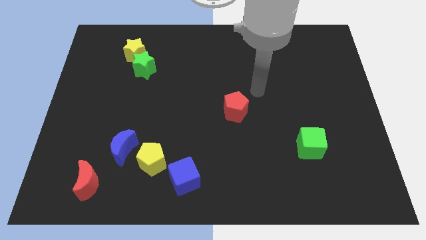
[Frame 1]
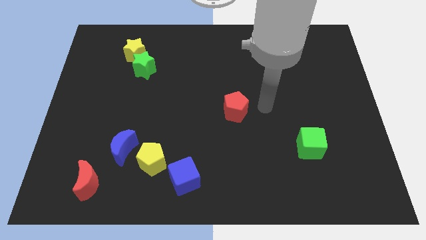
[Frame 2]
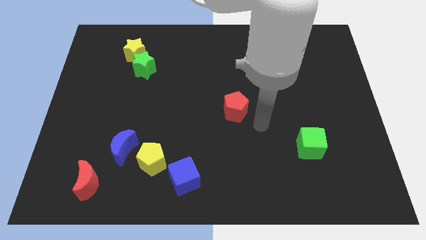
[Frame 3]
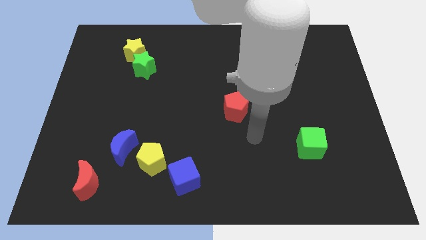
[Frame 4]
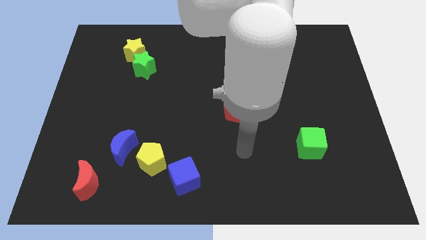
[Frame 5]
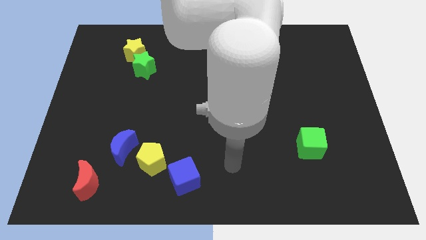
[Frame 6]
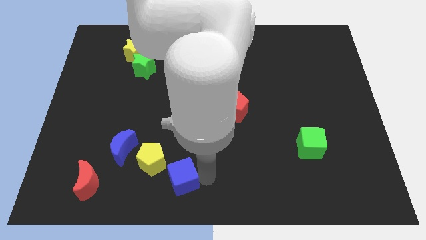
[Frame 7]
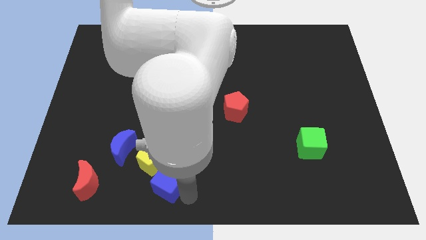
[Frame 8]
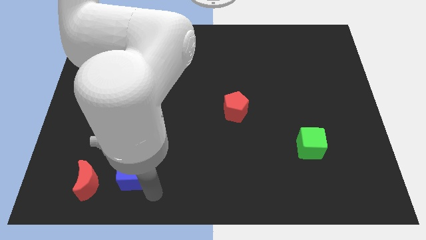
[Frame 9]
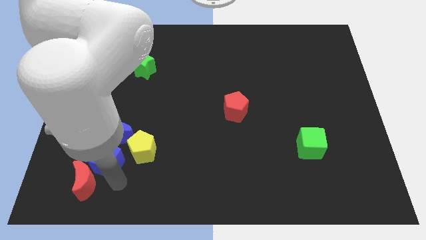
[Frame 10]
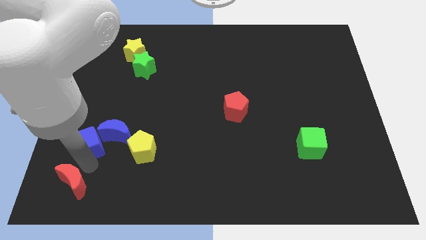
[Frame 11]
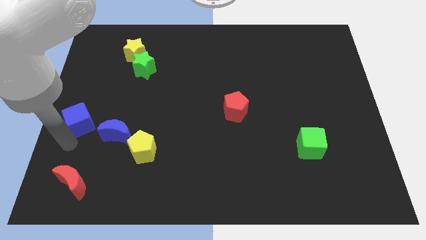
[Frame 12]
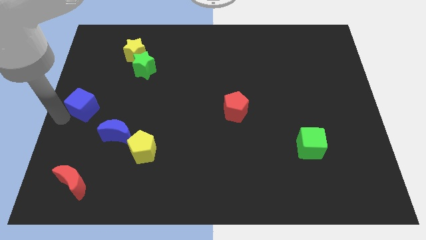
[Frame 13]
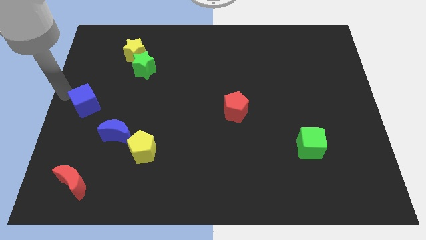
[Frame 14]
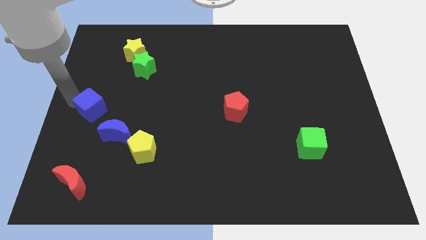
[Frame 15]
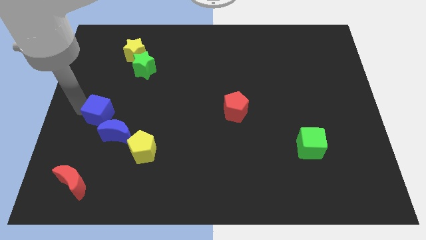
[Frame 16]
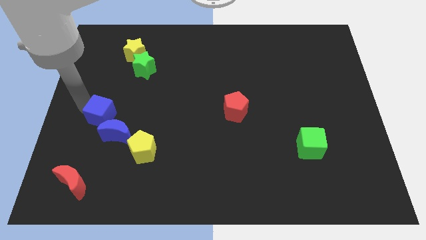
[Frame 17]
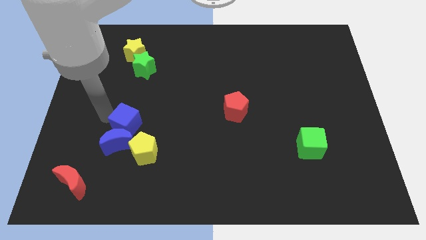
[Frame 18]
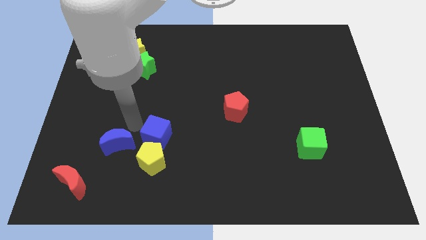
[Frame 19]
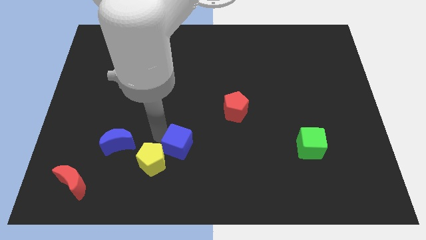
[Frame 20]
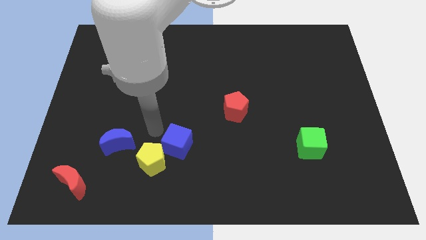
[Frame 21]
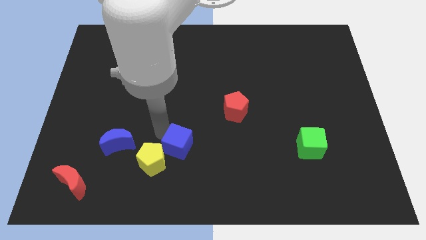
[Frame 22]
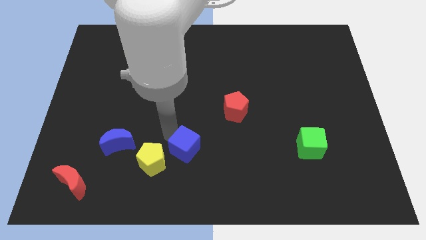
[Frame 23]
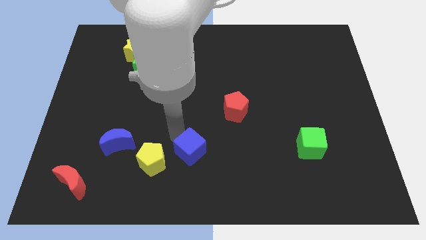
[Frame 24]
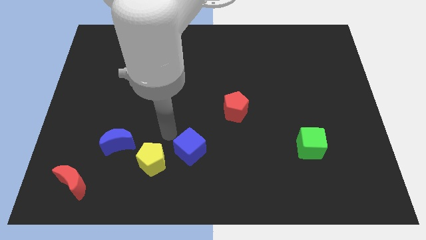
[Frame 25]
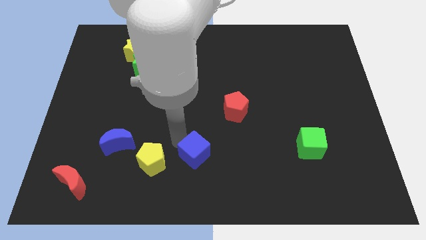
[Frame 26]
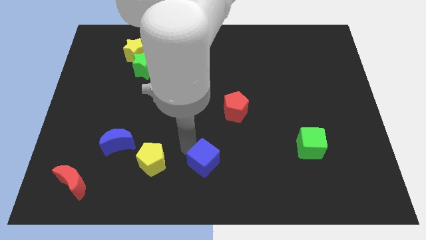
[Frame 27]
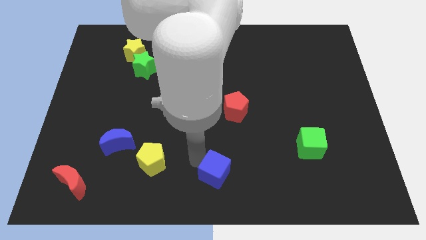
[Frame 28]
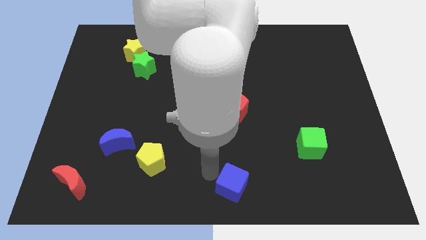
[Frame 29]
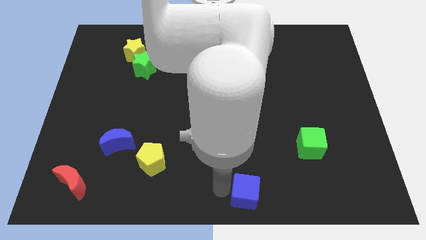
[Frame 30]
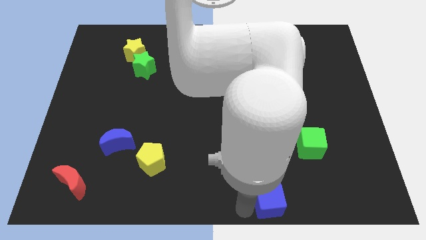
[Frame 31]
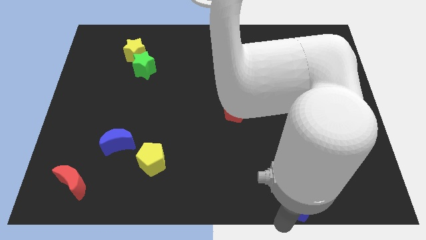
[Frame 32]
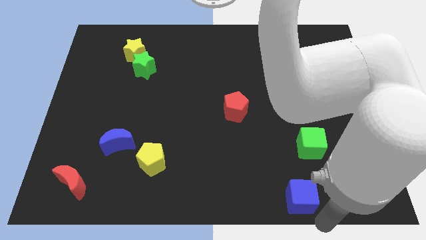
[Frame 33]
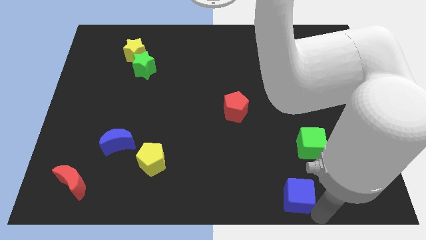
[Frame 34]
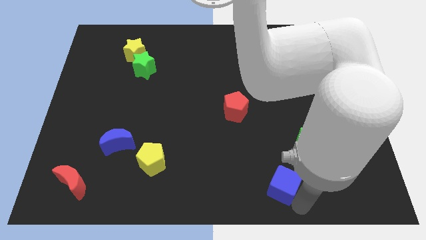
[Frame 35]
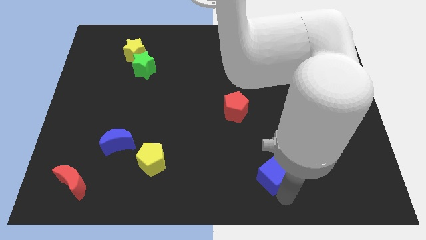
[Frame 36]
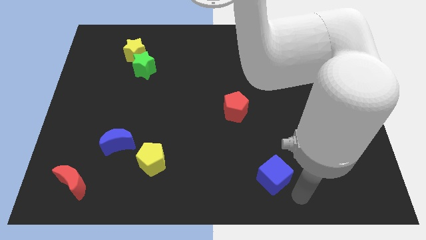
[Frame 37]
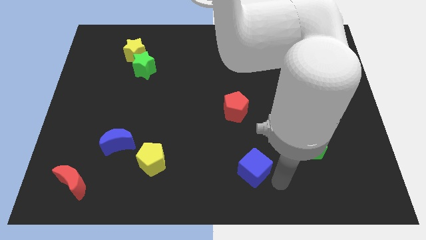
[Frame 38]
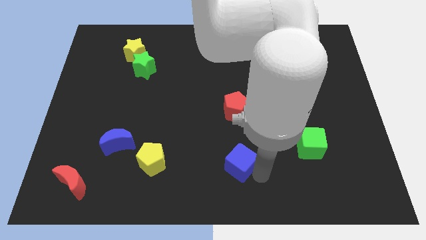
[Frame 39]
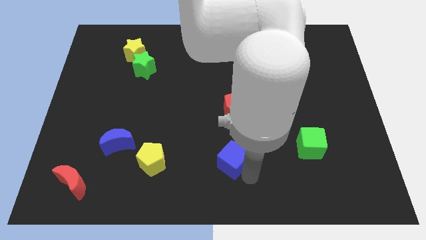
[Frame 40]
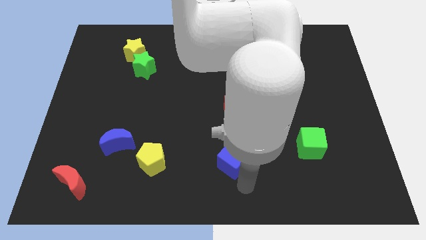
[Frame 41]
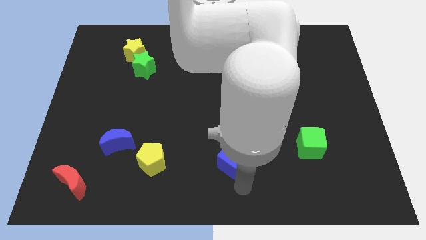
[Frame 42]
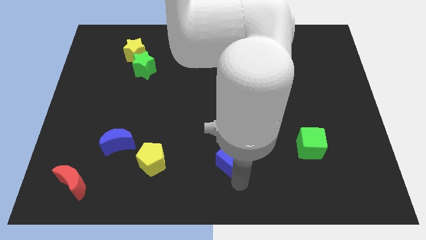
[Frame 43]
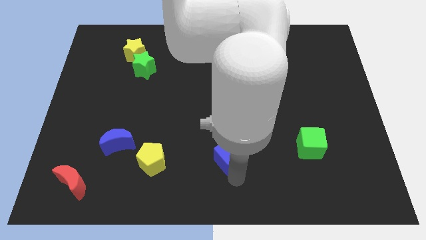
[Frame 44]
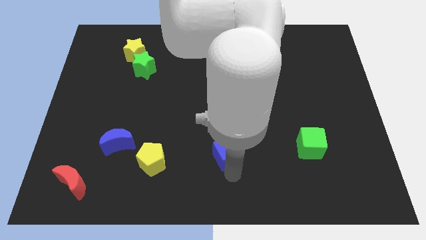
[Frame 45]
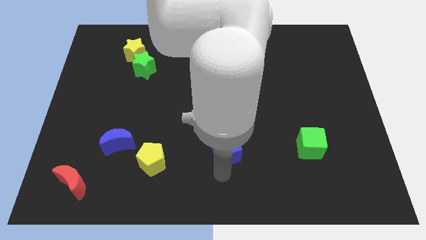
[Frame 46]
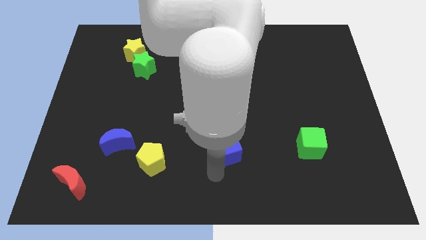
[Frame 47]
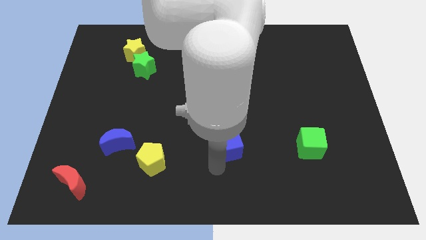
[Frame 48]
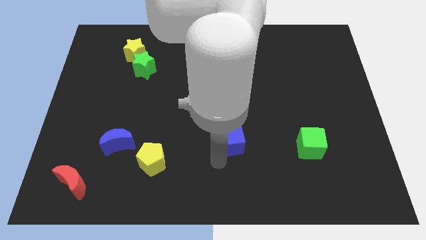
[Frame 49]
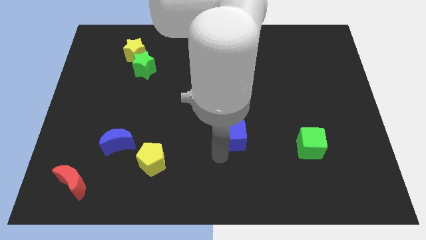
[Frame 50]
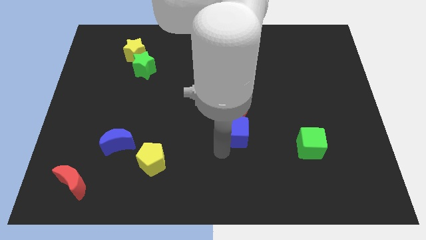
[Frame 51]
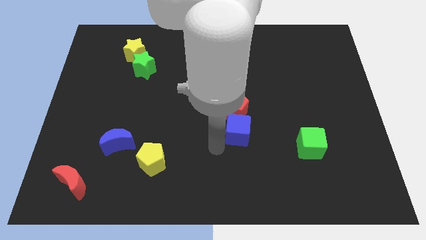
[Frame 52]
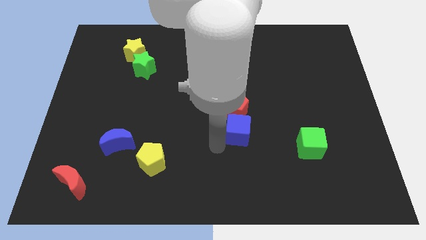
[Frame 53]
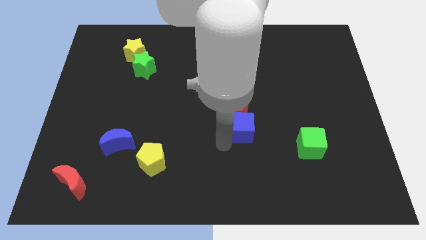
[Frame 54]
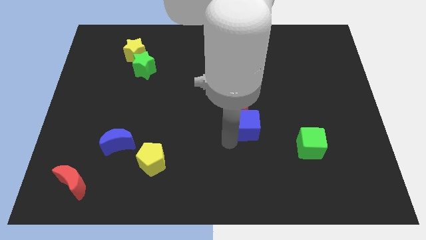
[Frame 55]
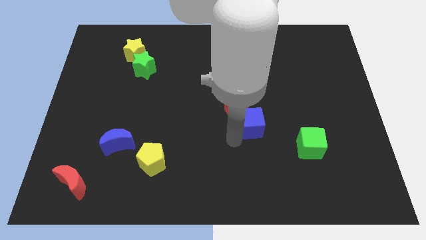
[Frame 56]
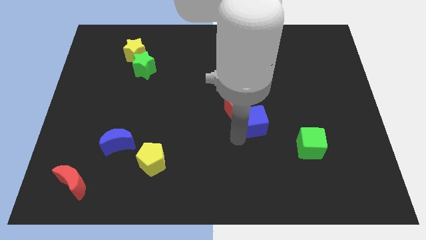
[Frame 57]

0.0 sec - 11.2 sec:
push the blue cube upwards and to the right diagonally

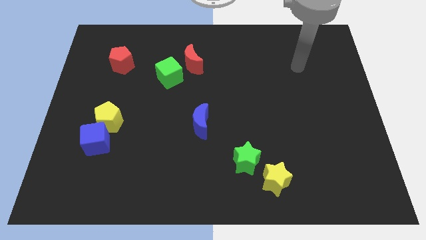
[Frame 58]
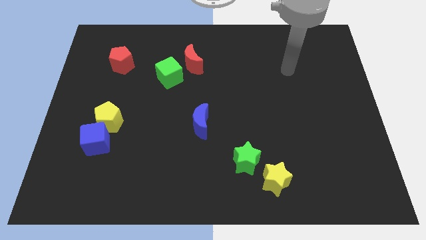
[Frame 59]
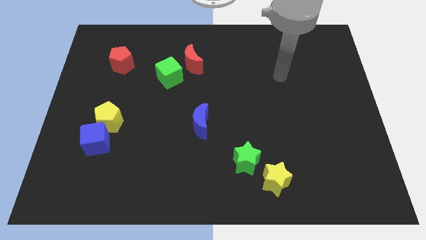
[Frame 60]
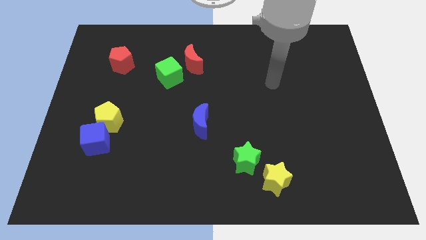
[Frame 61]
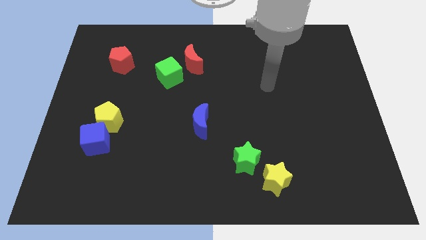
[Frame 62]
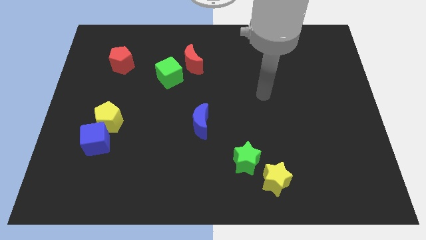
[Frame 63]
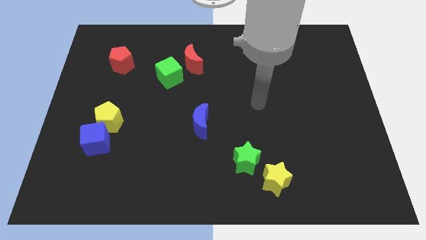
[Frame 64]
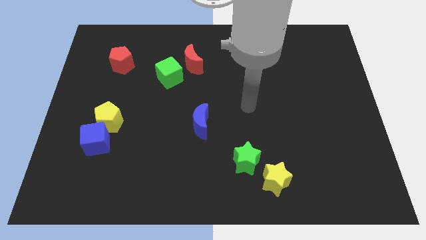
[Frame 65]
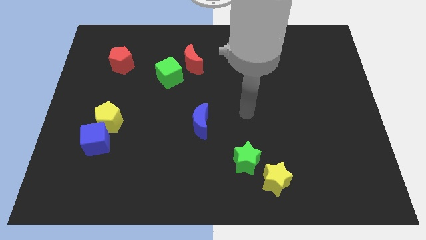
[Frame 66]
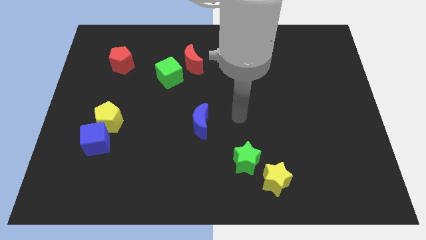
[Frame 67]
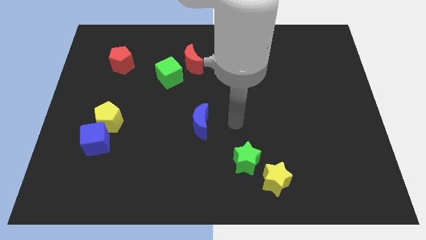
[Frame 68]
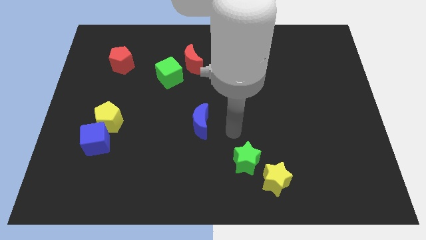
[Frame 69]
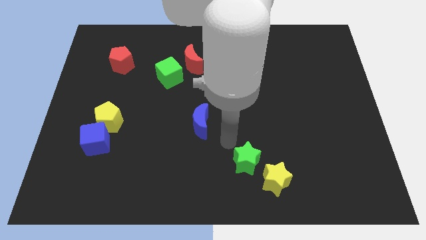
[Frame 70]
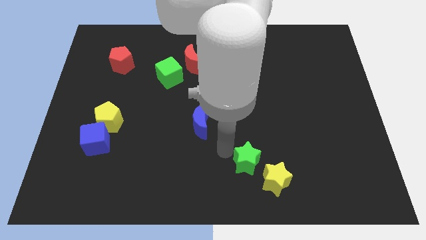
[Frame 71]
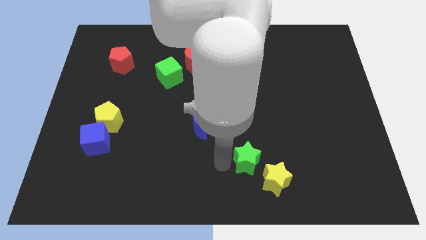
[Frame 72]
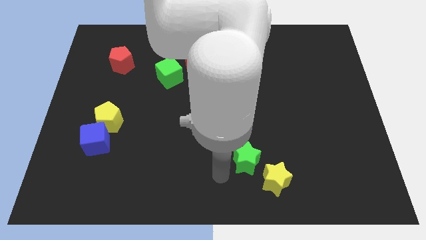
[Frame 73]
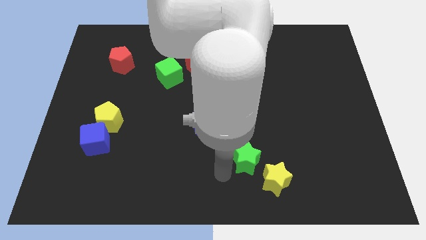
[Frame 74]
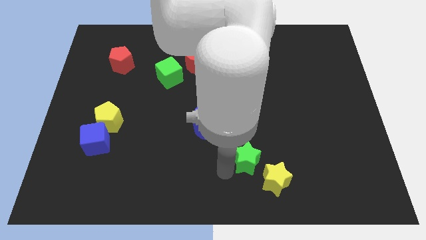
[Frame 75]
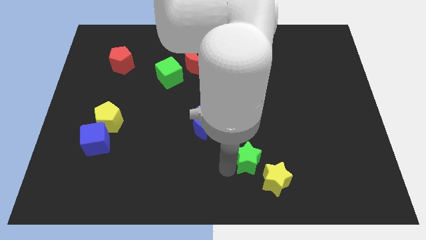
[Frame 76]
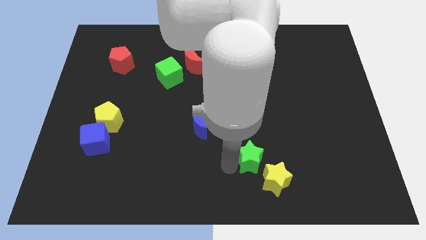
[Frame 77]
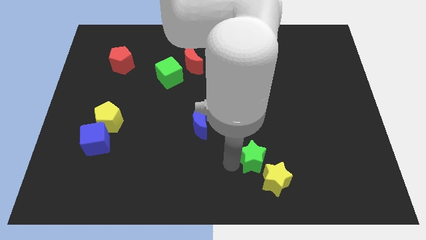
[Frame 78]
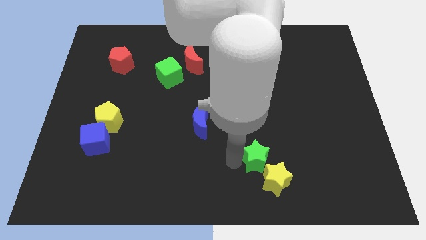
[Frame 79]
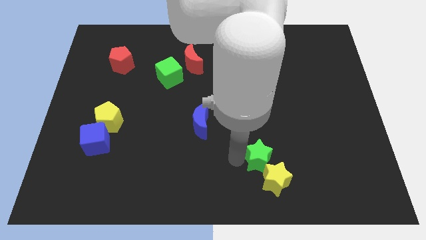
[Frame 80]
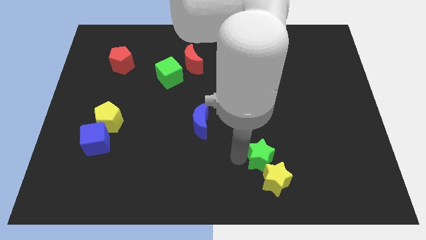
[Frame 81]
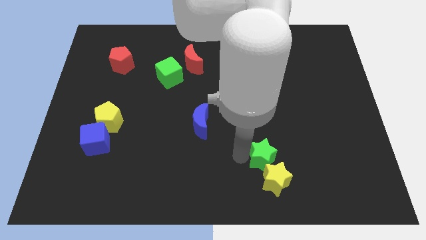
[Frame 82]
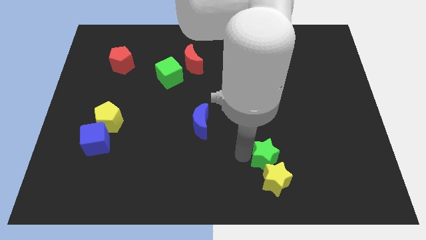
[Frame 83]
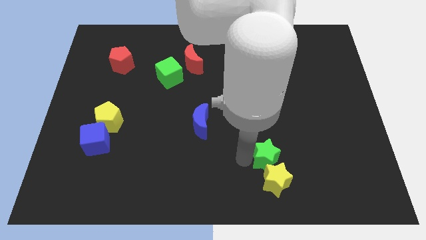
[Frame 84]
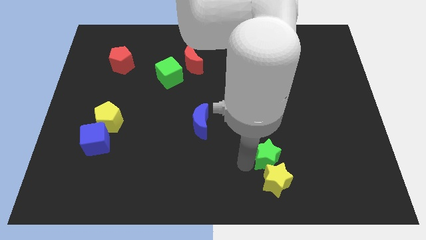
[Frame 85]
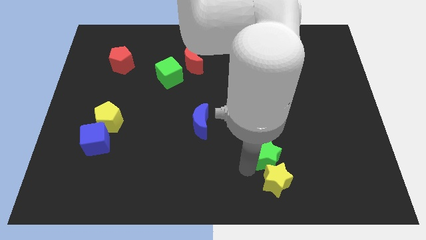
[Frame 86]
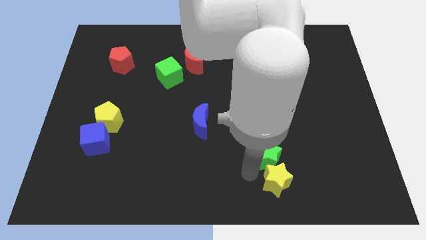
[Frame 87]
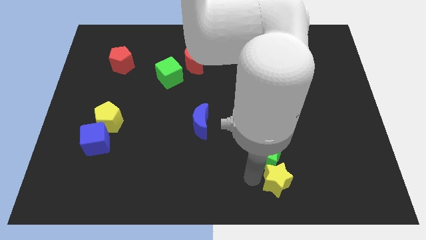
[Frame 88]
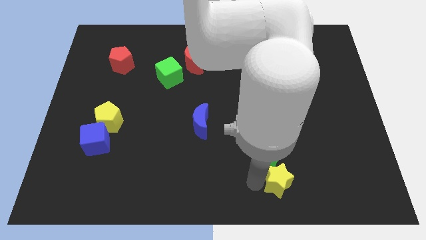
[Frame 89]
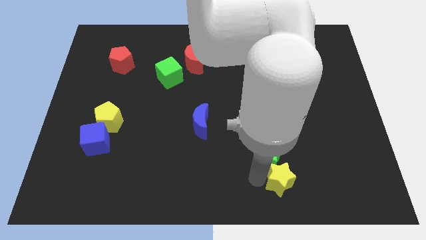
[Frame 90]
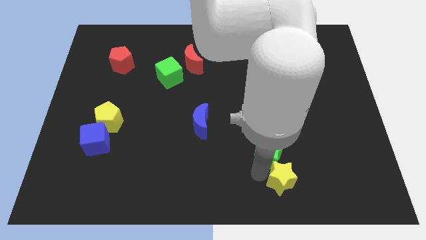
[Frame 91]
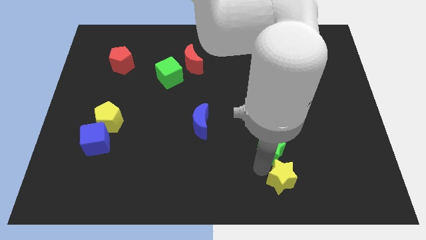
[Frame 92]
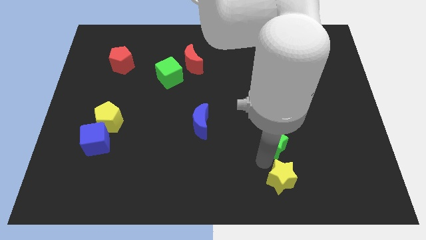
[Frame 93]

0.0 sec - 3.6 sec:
slightly push the green star up and to the right diagonally
